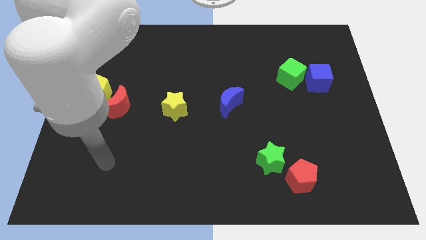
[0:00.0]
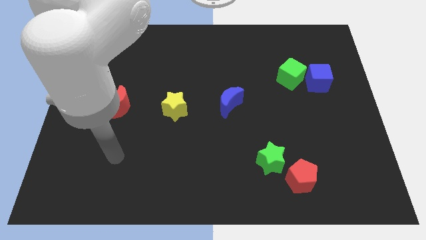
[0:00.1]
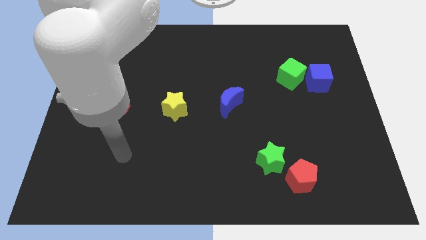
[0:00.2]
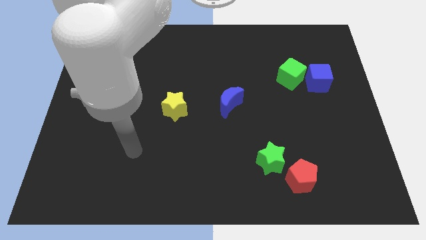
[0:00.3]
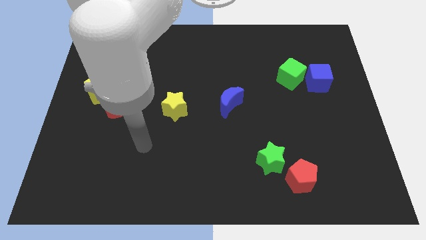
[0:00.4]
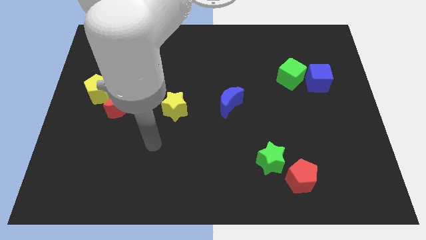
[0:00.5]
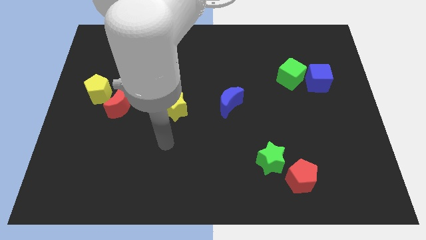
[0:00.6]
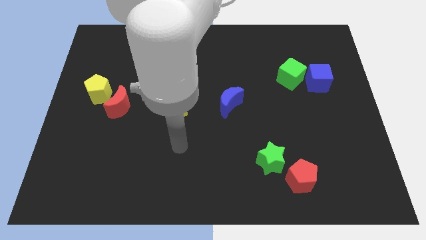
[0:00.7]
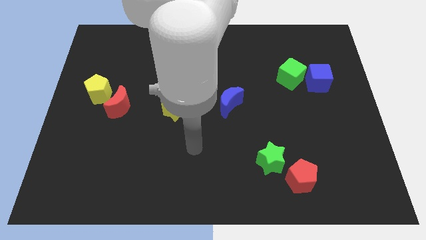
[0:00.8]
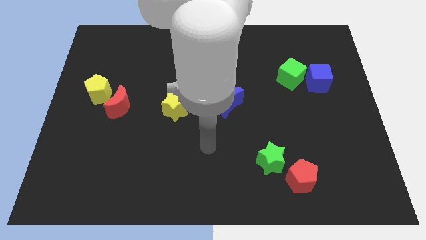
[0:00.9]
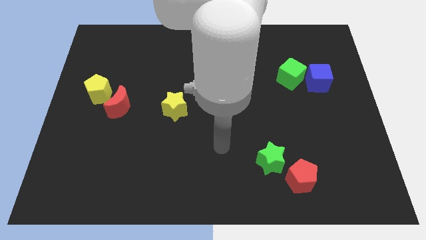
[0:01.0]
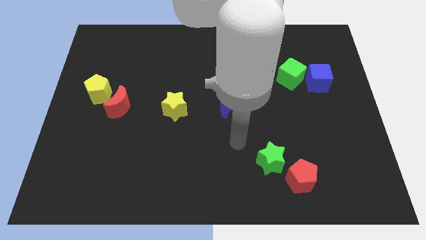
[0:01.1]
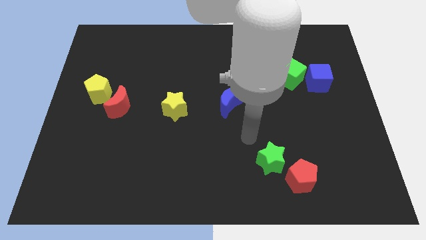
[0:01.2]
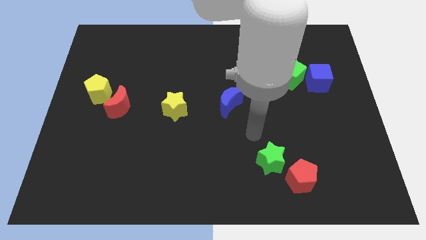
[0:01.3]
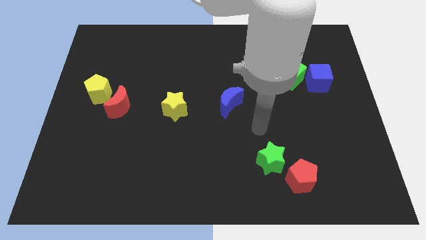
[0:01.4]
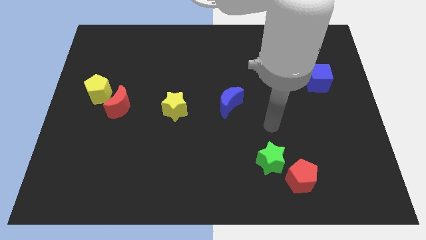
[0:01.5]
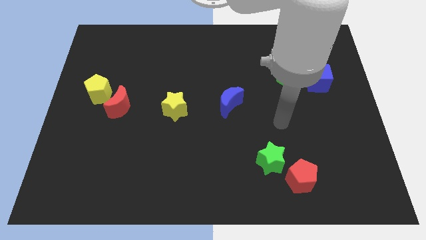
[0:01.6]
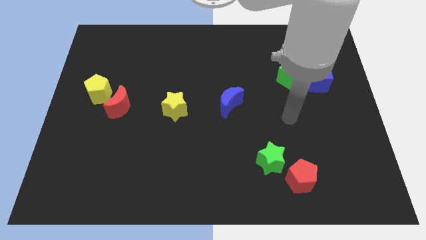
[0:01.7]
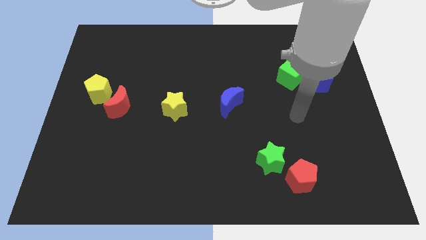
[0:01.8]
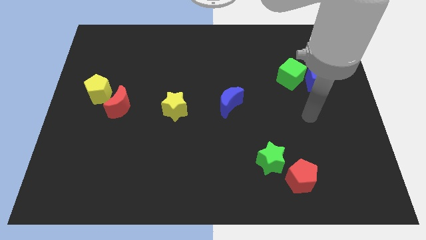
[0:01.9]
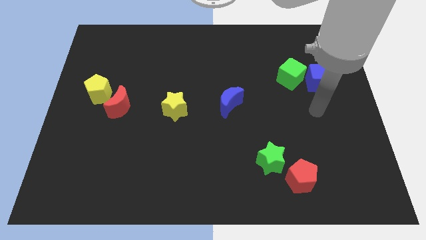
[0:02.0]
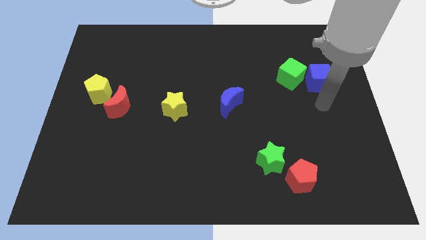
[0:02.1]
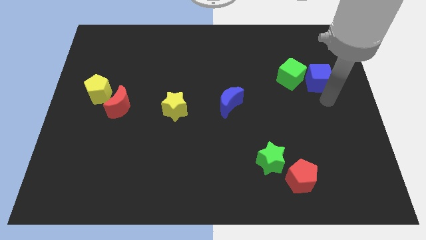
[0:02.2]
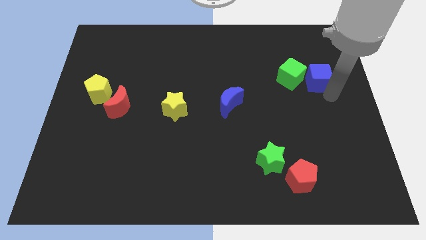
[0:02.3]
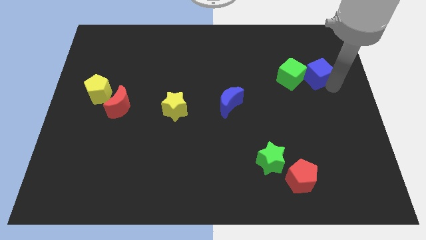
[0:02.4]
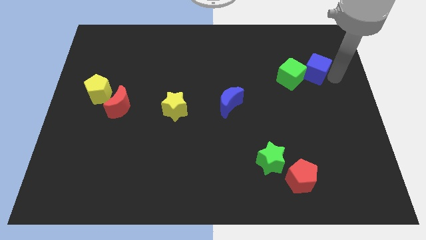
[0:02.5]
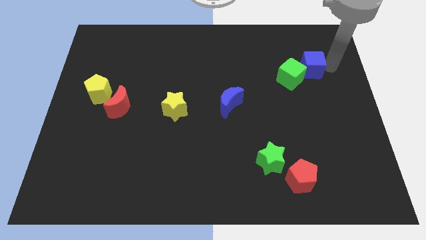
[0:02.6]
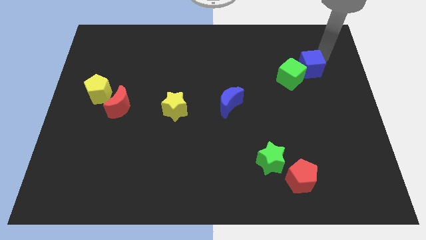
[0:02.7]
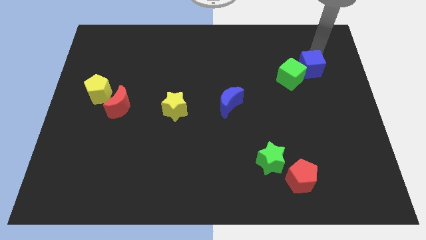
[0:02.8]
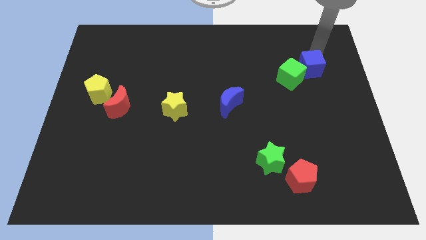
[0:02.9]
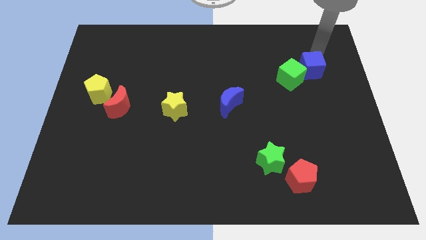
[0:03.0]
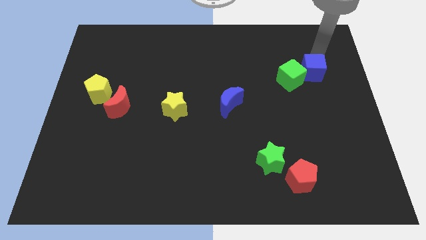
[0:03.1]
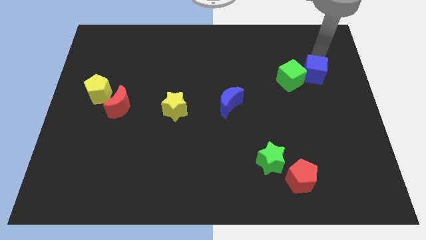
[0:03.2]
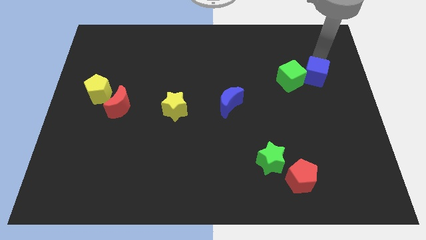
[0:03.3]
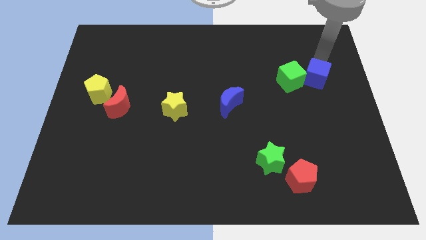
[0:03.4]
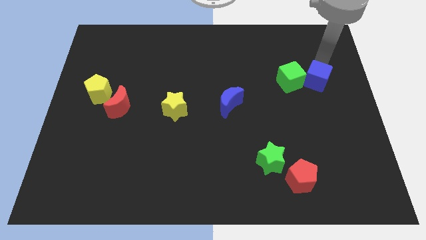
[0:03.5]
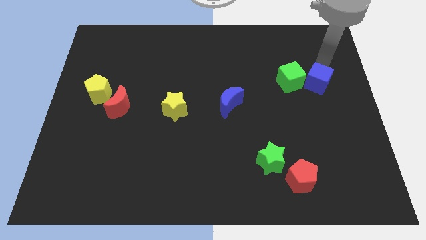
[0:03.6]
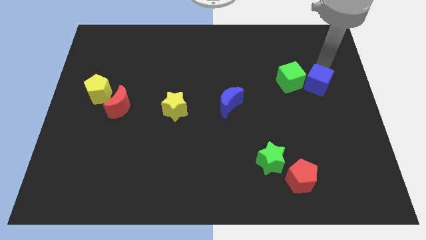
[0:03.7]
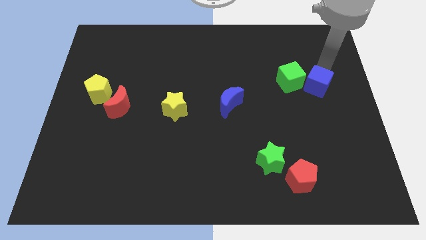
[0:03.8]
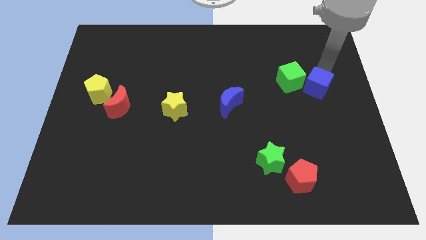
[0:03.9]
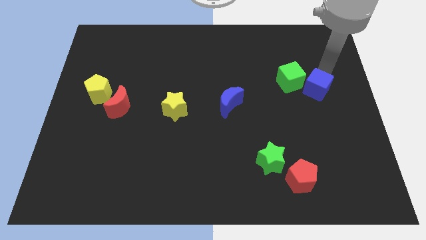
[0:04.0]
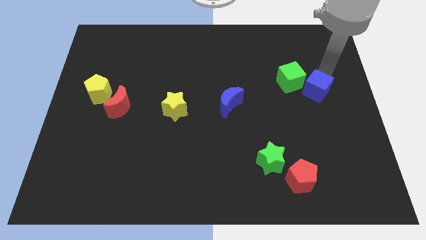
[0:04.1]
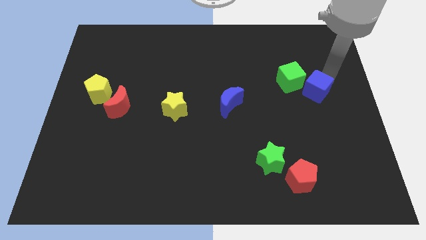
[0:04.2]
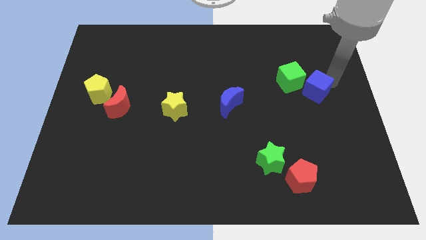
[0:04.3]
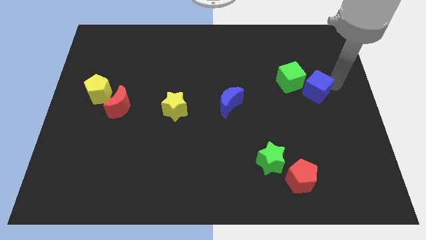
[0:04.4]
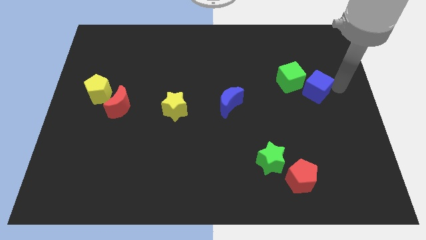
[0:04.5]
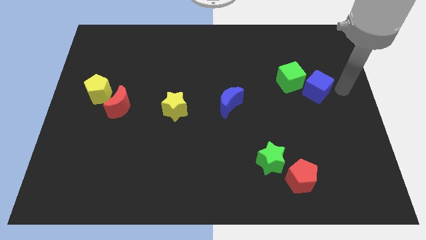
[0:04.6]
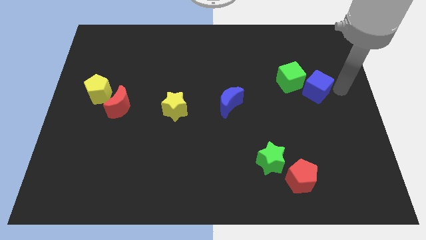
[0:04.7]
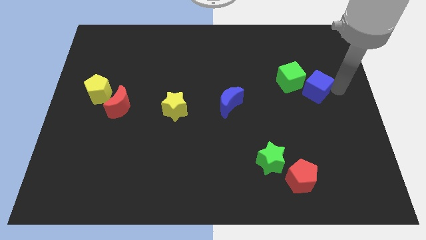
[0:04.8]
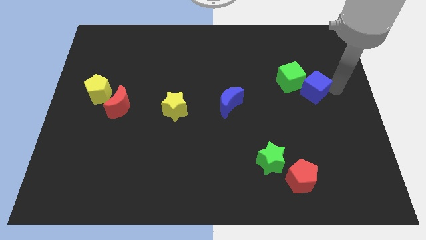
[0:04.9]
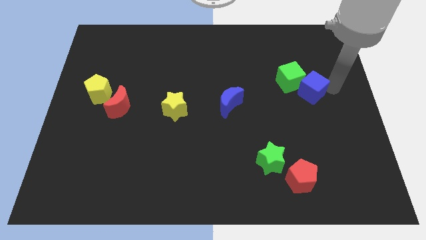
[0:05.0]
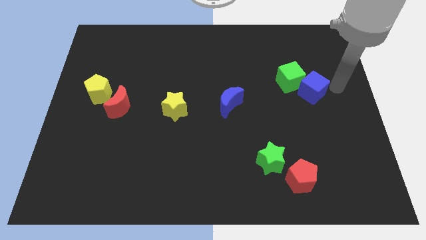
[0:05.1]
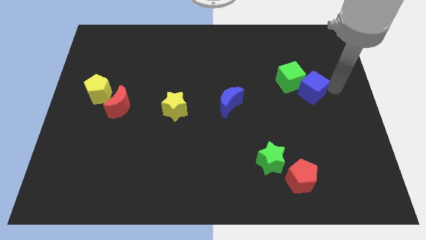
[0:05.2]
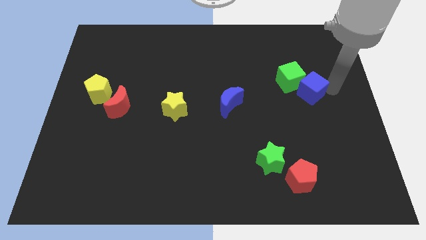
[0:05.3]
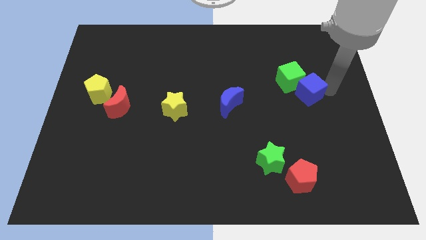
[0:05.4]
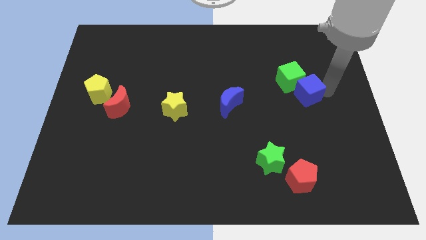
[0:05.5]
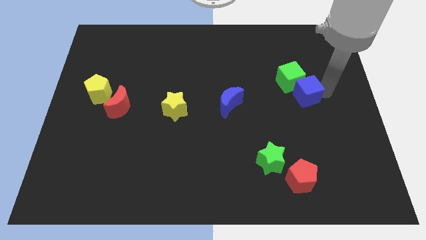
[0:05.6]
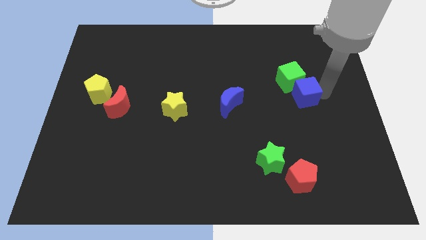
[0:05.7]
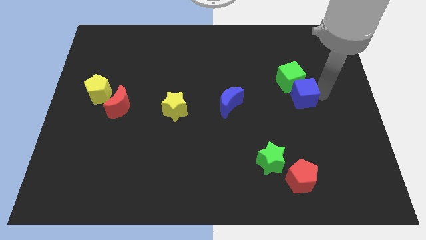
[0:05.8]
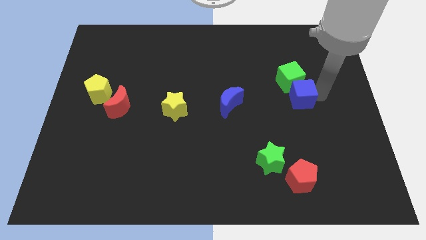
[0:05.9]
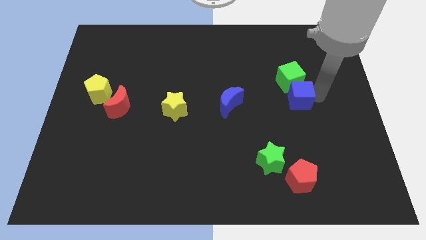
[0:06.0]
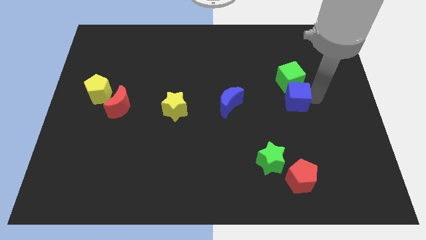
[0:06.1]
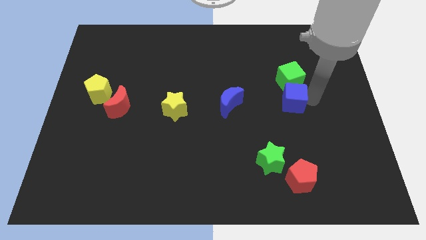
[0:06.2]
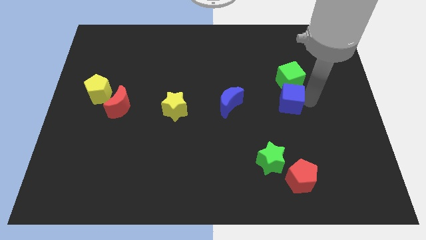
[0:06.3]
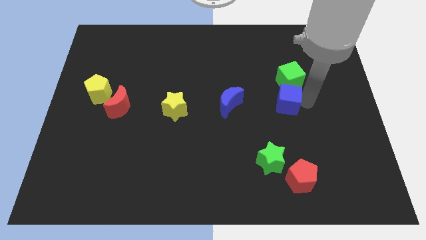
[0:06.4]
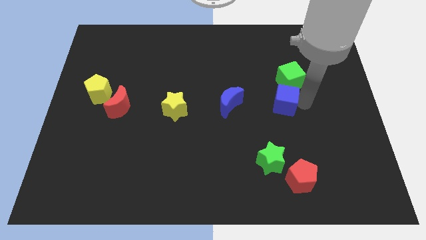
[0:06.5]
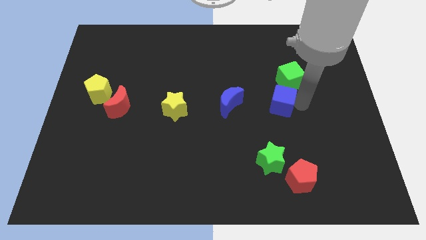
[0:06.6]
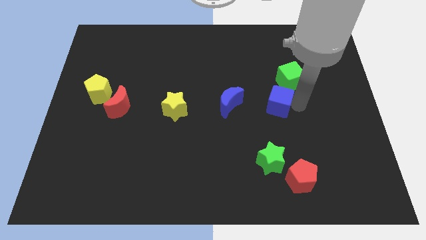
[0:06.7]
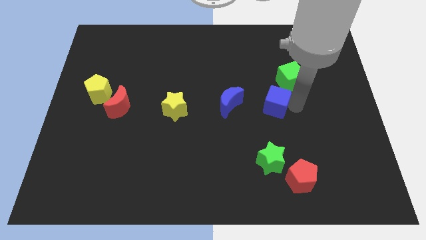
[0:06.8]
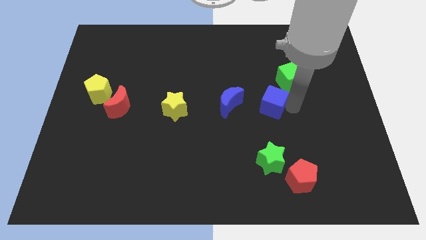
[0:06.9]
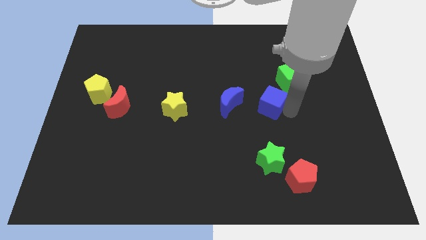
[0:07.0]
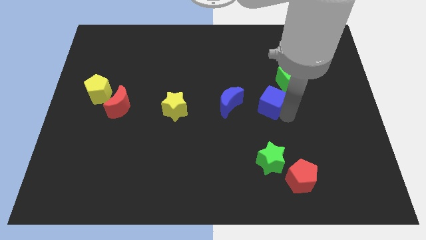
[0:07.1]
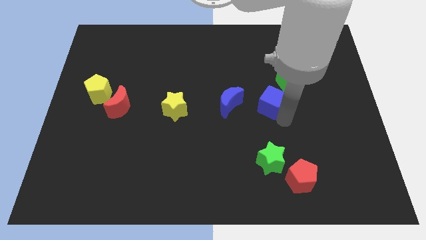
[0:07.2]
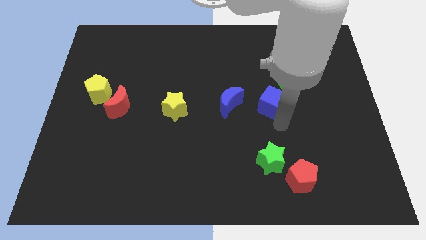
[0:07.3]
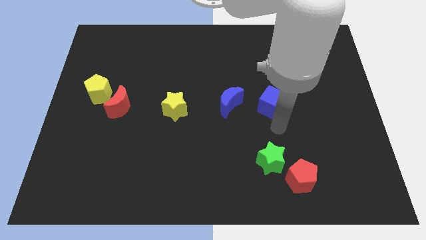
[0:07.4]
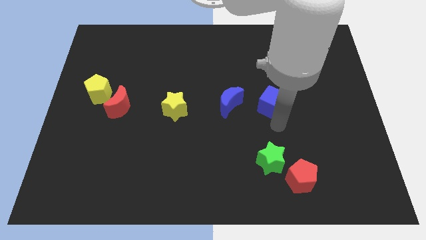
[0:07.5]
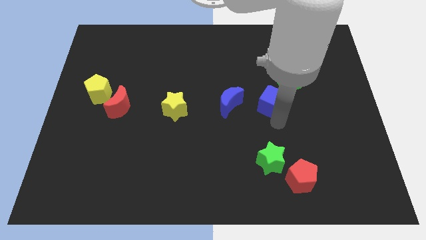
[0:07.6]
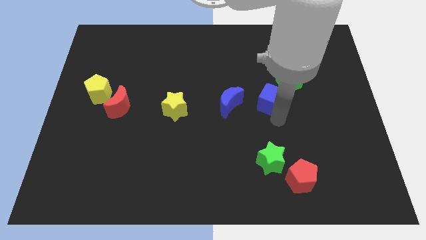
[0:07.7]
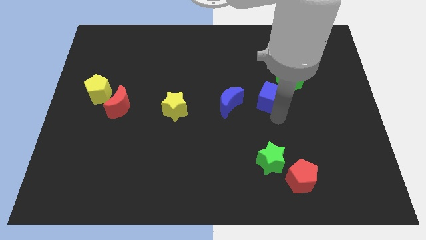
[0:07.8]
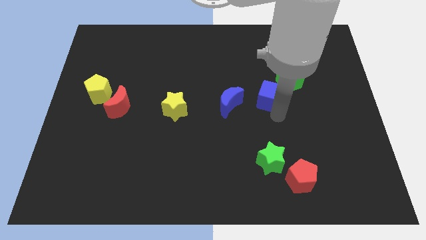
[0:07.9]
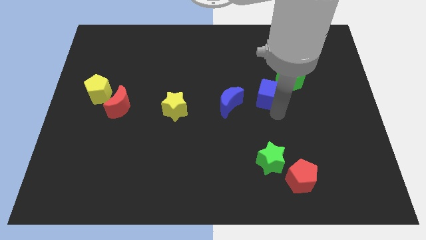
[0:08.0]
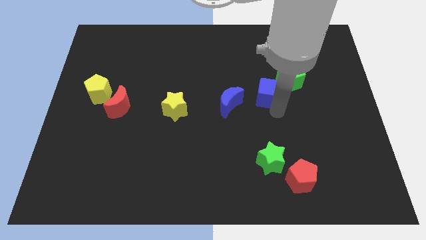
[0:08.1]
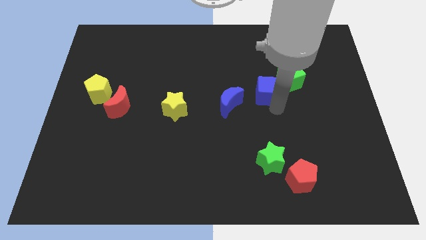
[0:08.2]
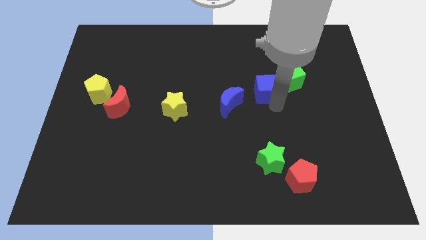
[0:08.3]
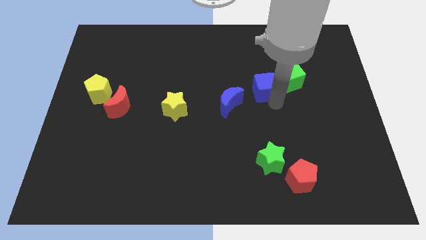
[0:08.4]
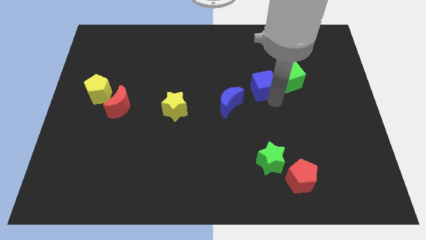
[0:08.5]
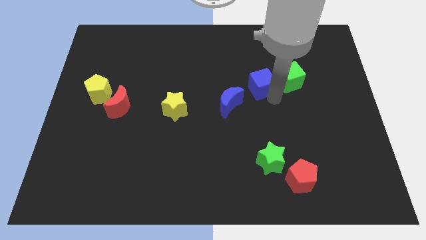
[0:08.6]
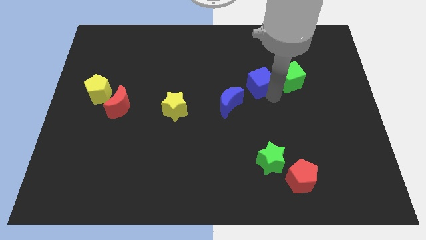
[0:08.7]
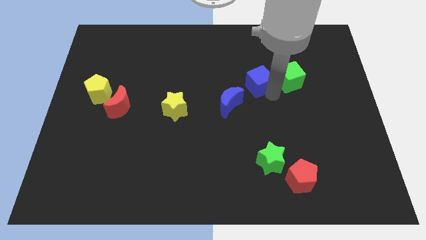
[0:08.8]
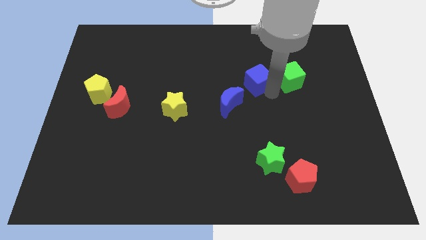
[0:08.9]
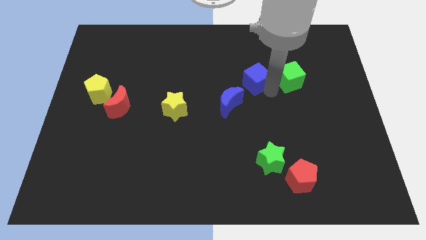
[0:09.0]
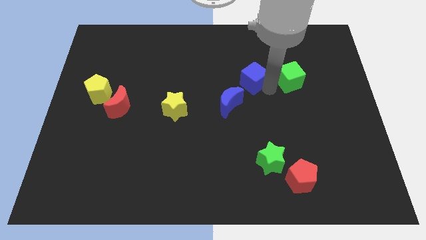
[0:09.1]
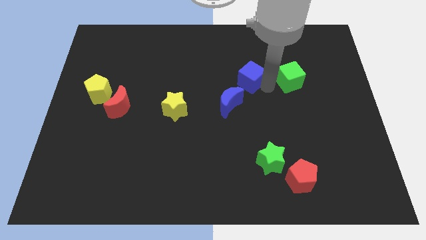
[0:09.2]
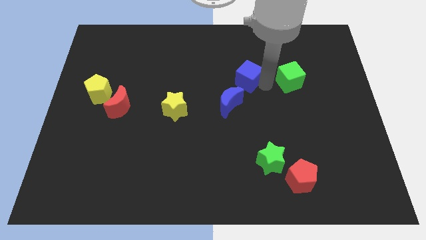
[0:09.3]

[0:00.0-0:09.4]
move the blue cube to the top of the blue moon
